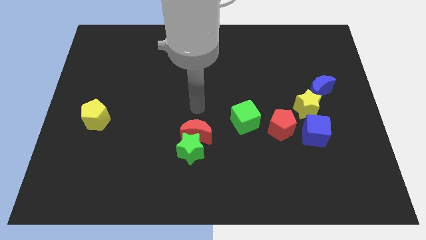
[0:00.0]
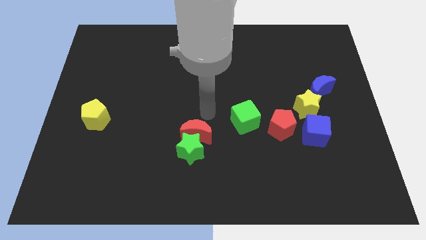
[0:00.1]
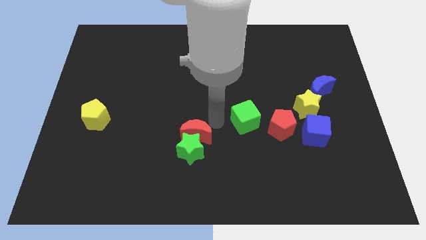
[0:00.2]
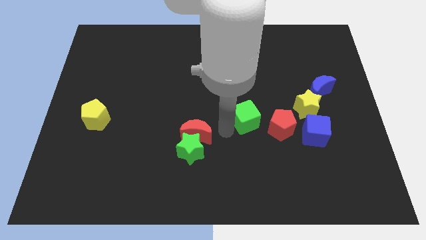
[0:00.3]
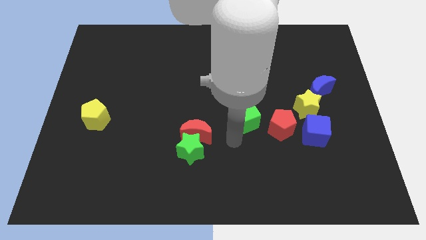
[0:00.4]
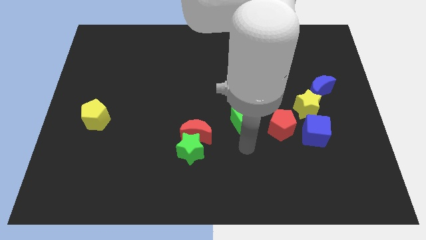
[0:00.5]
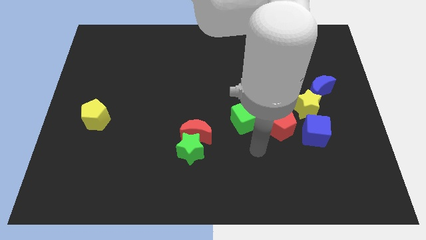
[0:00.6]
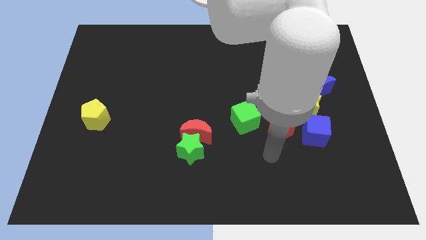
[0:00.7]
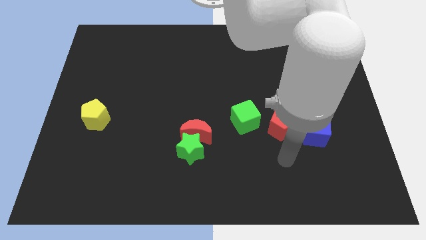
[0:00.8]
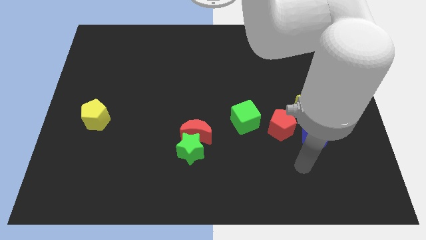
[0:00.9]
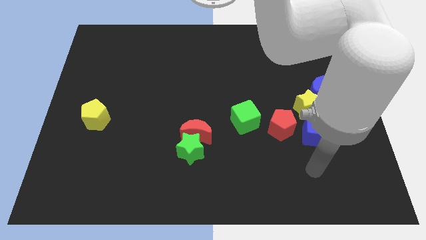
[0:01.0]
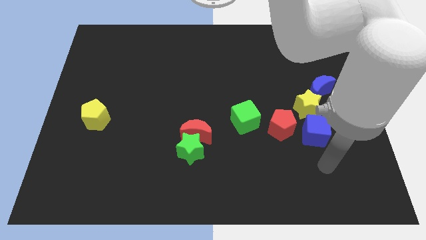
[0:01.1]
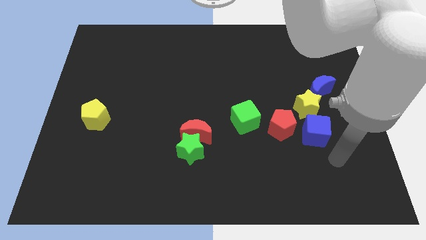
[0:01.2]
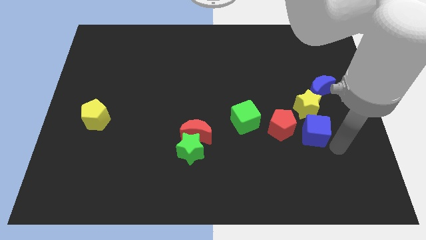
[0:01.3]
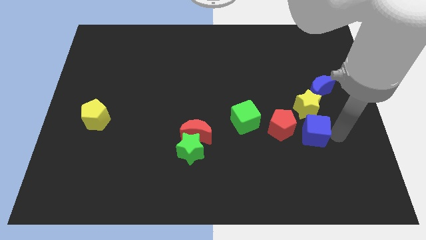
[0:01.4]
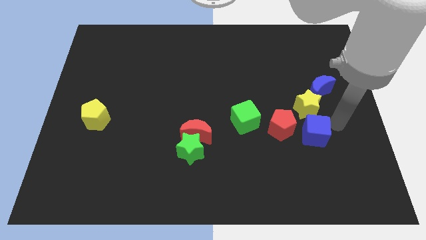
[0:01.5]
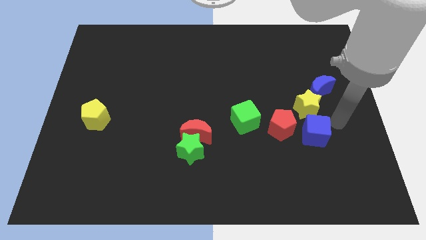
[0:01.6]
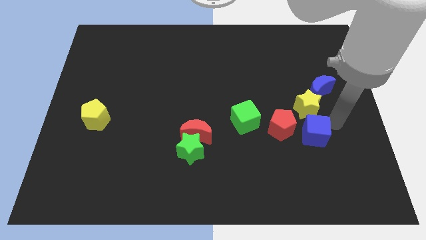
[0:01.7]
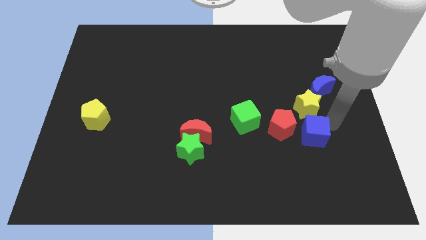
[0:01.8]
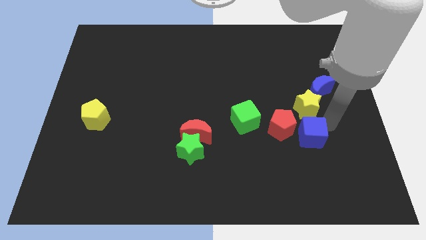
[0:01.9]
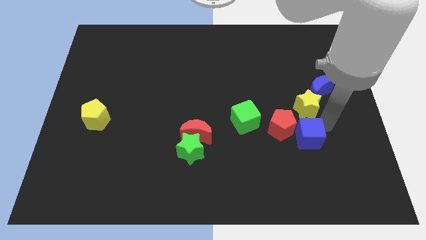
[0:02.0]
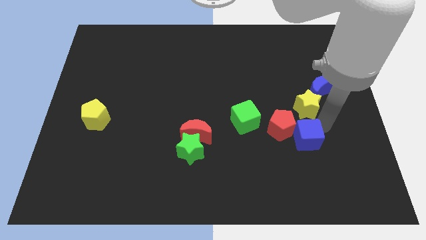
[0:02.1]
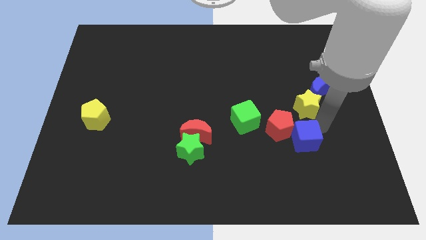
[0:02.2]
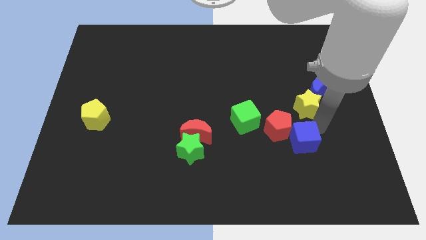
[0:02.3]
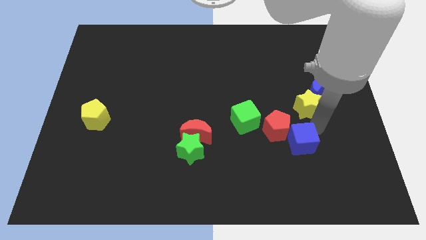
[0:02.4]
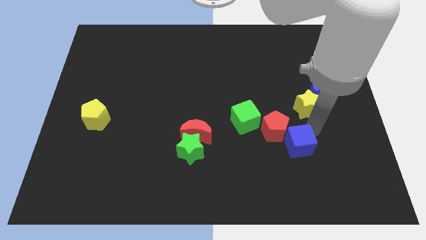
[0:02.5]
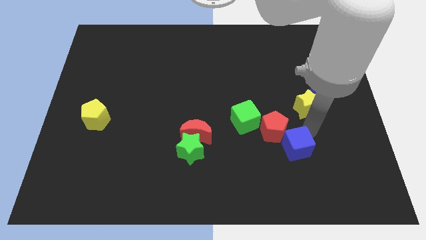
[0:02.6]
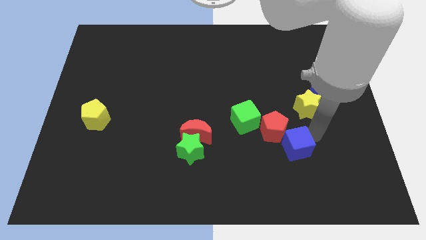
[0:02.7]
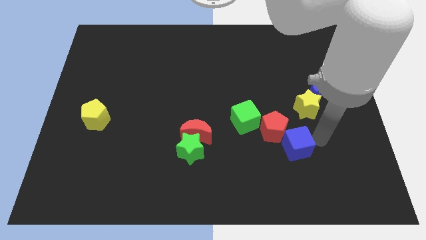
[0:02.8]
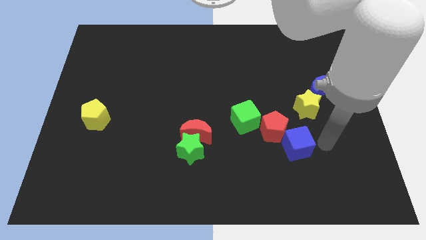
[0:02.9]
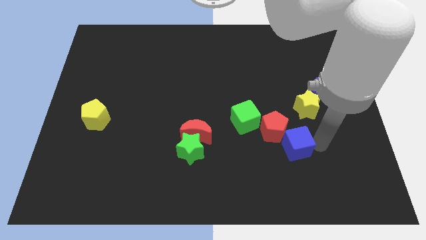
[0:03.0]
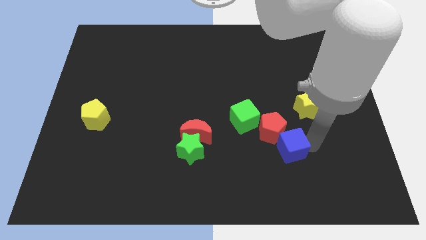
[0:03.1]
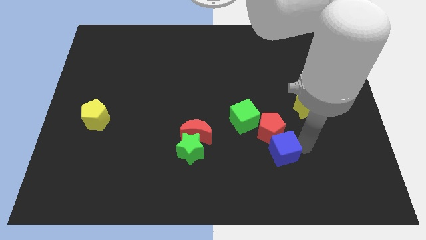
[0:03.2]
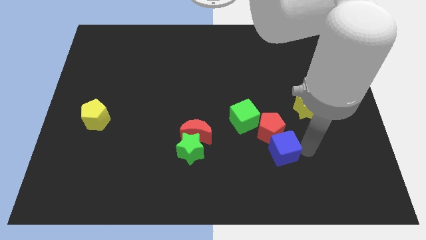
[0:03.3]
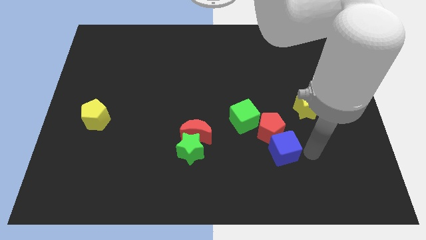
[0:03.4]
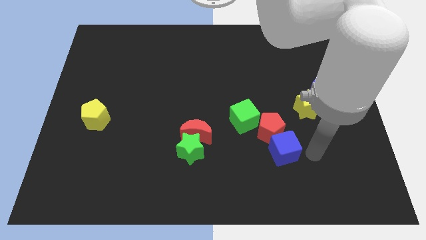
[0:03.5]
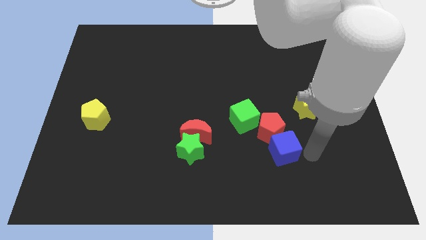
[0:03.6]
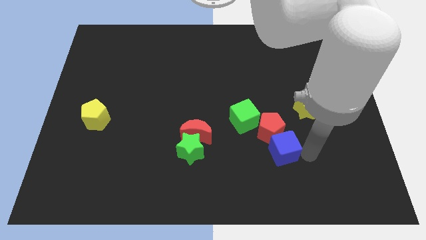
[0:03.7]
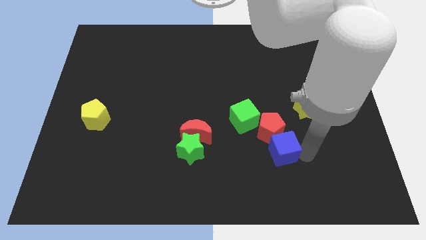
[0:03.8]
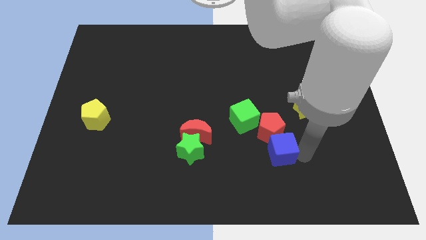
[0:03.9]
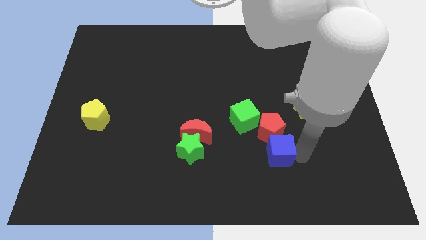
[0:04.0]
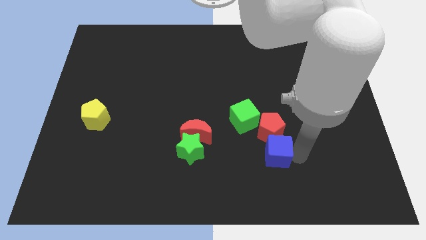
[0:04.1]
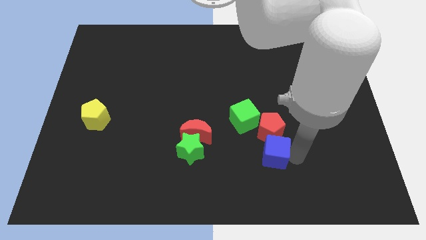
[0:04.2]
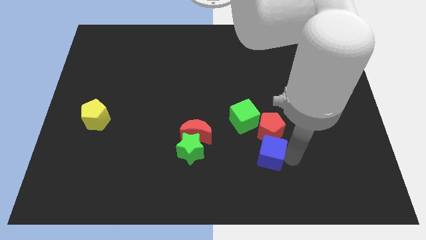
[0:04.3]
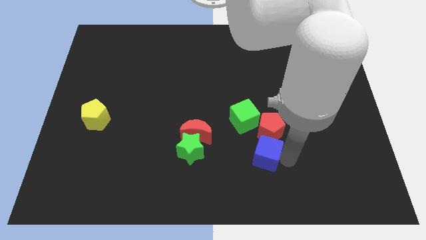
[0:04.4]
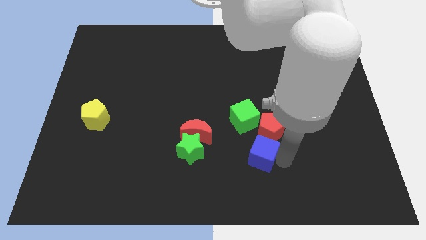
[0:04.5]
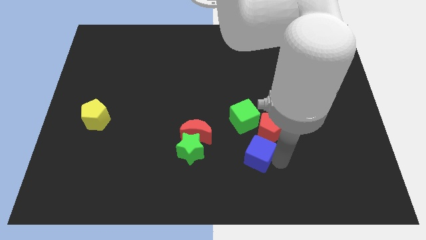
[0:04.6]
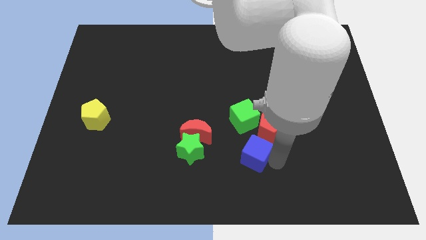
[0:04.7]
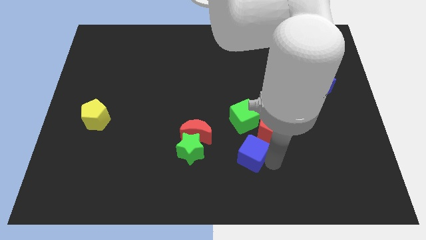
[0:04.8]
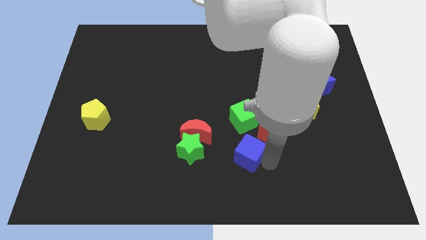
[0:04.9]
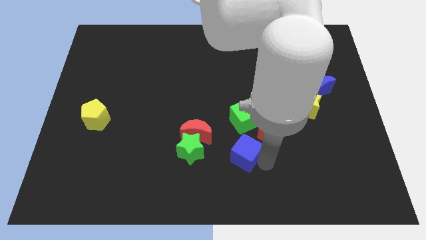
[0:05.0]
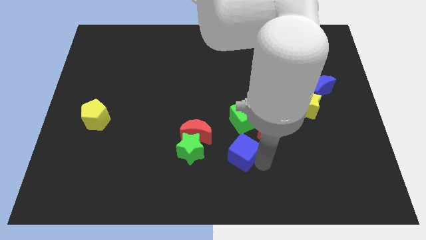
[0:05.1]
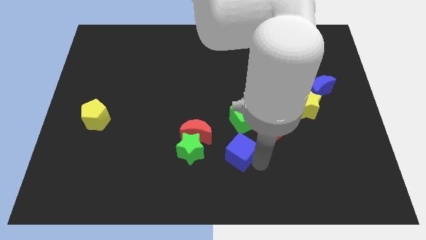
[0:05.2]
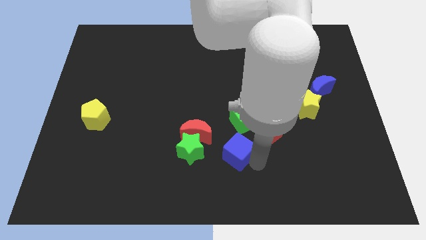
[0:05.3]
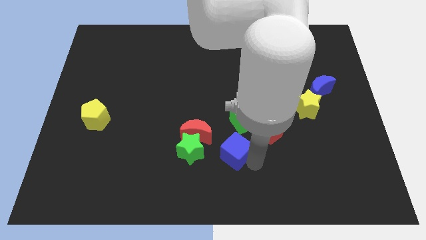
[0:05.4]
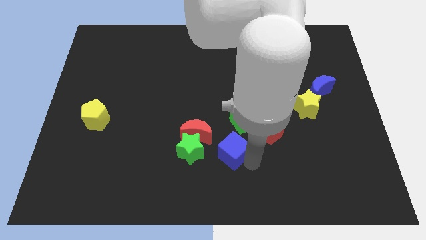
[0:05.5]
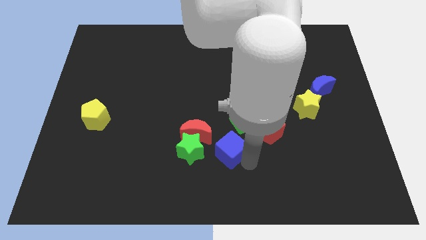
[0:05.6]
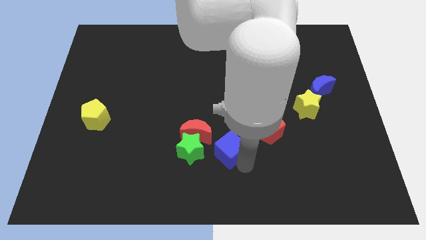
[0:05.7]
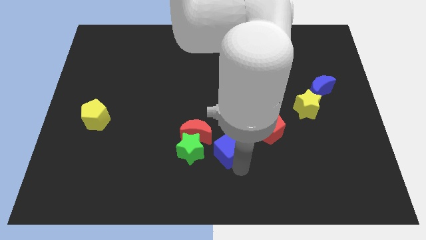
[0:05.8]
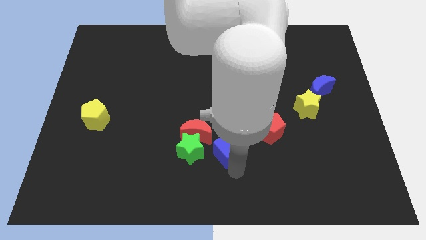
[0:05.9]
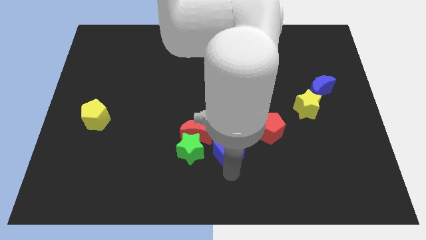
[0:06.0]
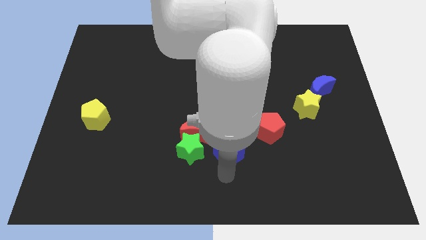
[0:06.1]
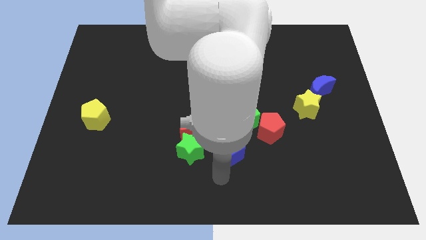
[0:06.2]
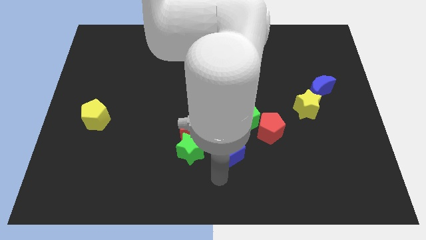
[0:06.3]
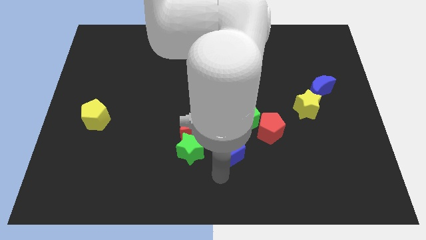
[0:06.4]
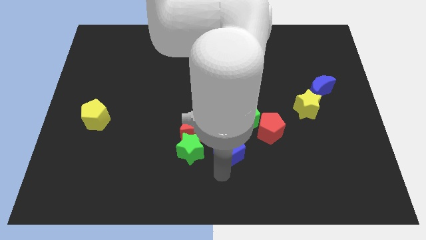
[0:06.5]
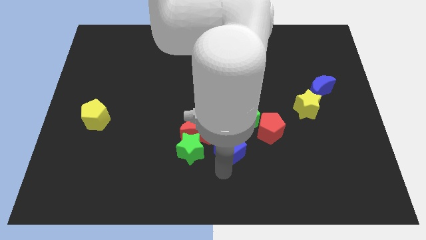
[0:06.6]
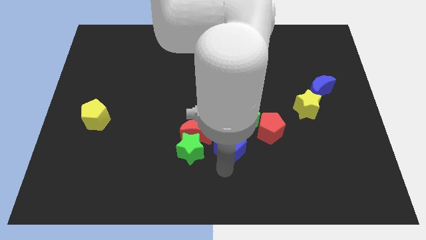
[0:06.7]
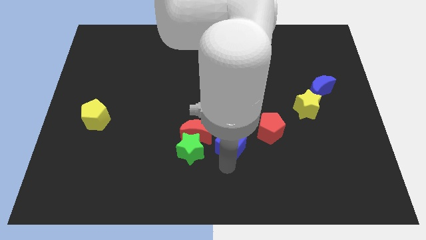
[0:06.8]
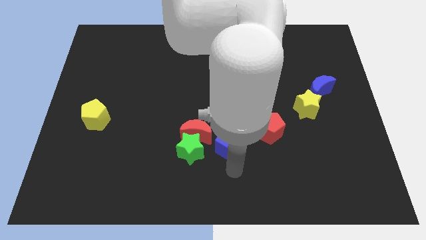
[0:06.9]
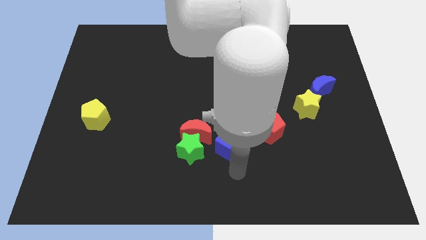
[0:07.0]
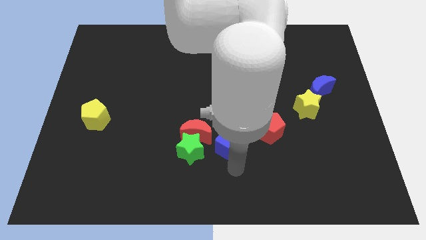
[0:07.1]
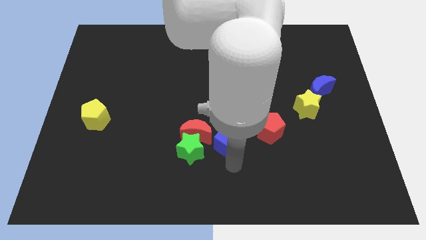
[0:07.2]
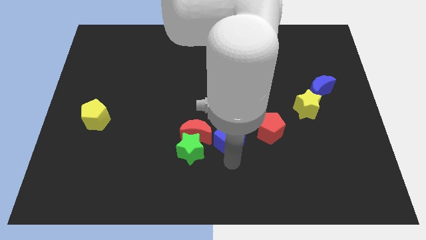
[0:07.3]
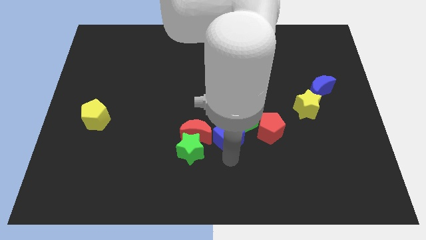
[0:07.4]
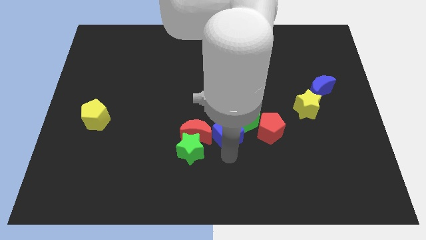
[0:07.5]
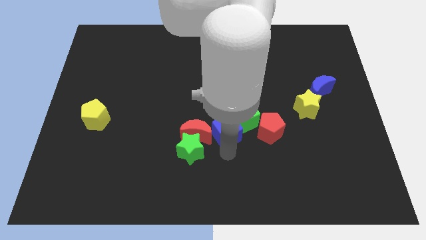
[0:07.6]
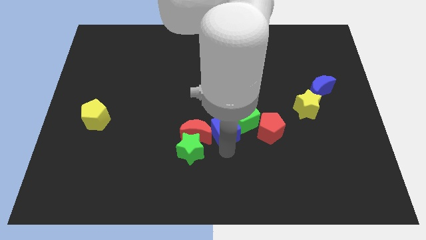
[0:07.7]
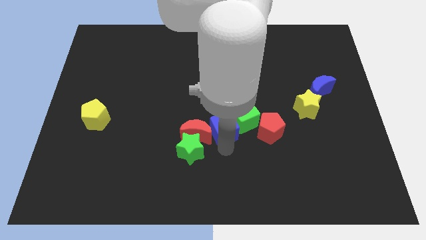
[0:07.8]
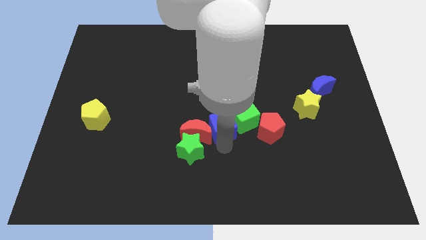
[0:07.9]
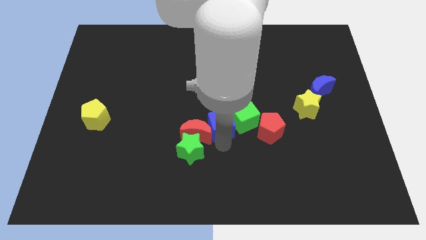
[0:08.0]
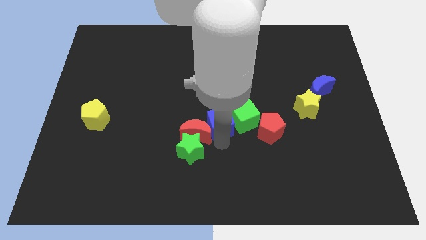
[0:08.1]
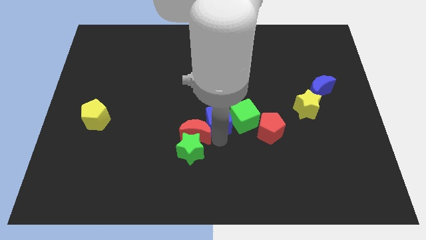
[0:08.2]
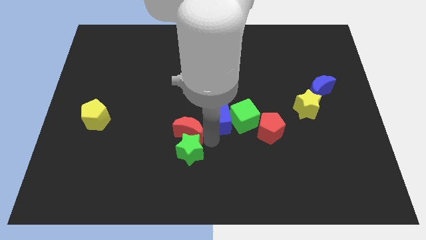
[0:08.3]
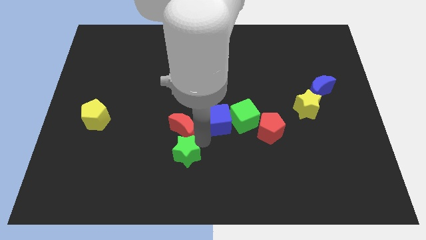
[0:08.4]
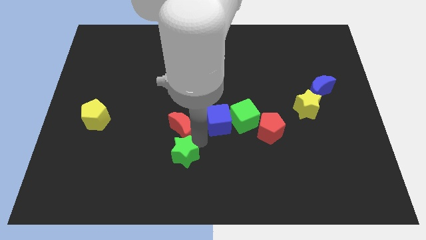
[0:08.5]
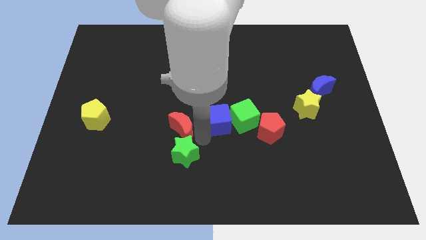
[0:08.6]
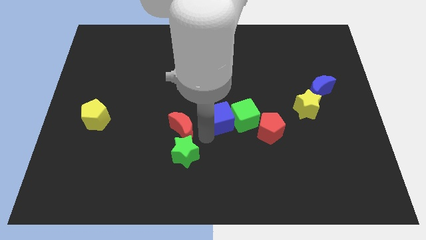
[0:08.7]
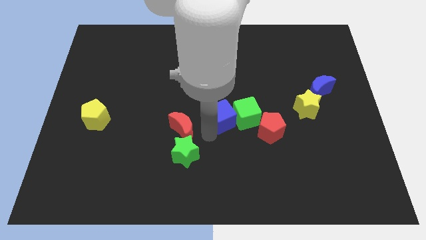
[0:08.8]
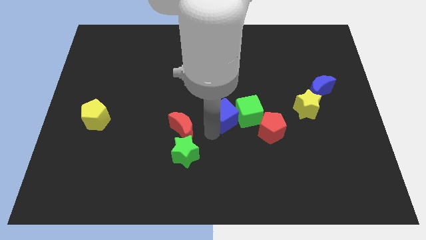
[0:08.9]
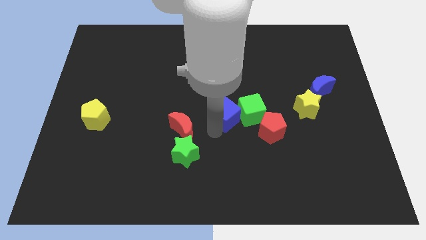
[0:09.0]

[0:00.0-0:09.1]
put the blue cube to the top left of the red pentagon
